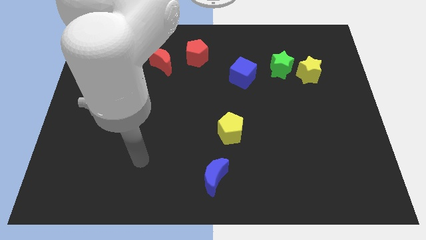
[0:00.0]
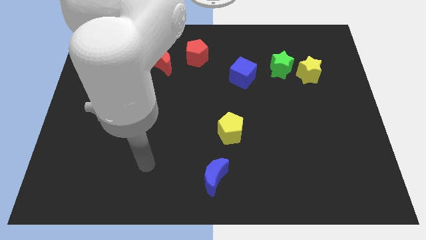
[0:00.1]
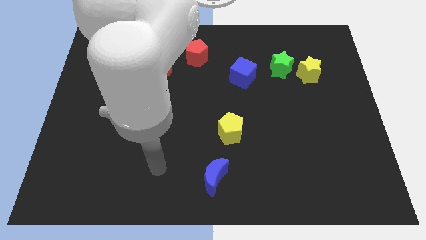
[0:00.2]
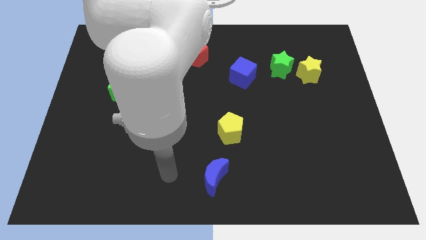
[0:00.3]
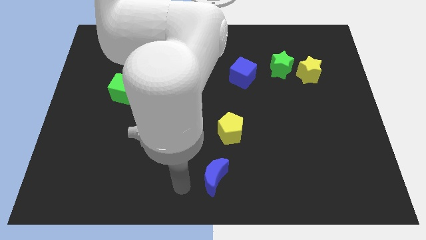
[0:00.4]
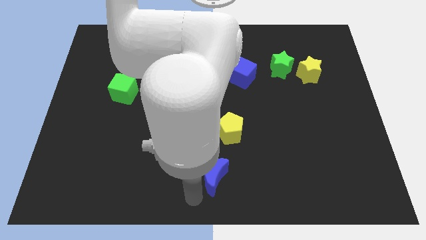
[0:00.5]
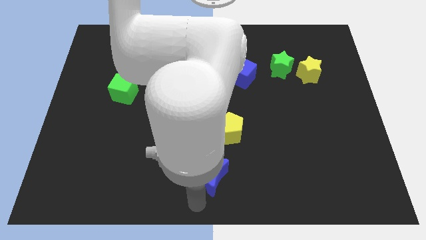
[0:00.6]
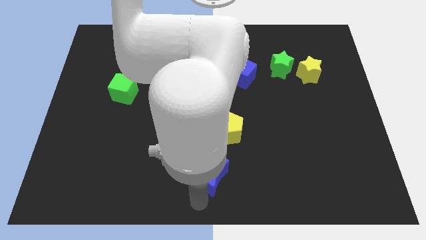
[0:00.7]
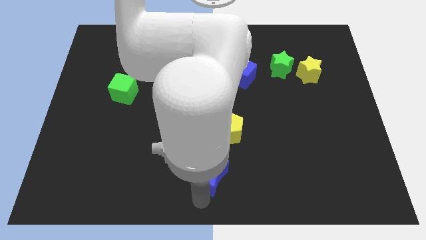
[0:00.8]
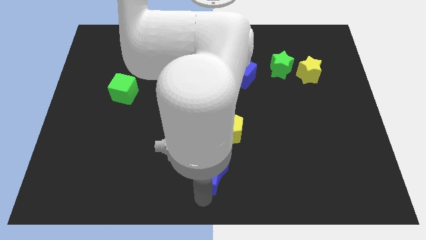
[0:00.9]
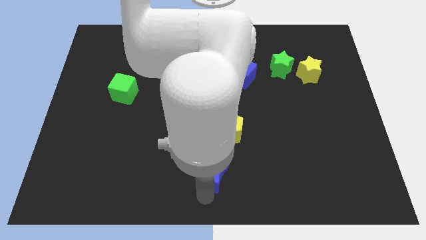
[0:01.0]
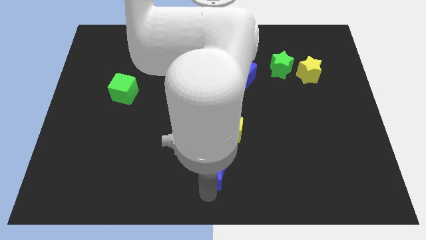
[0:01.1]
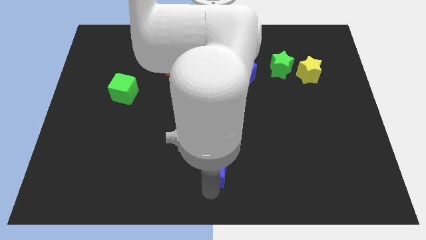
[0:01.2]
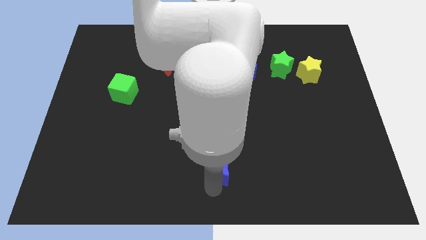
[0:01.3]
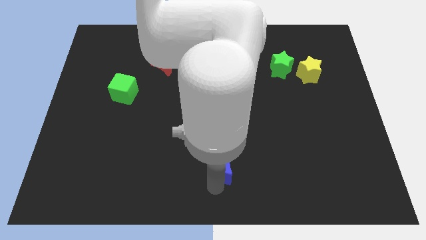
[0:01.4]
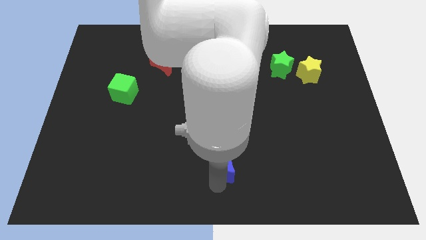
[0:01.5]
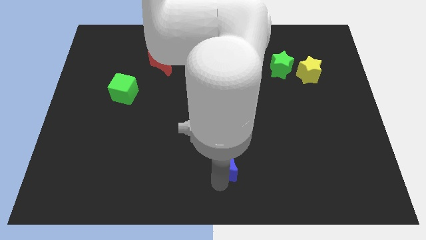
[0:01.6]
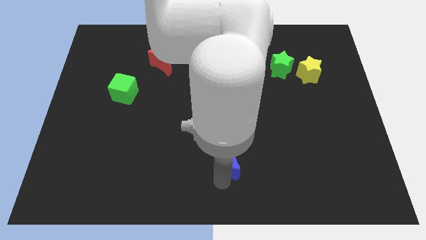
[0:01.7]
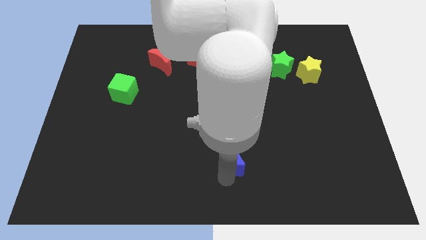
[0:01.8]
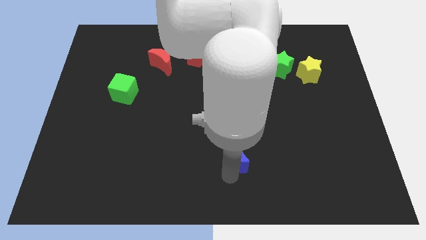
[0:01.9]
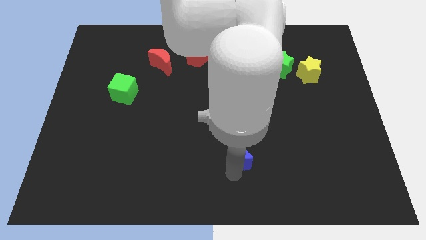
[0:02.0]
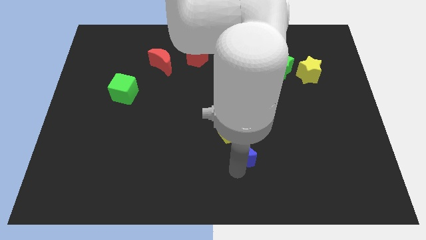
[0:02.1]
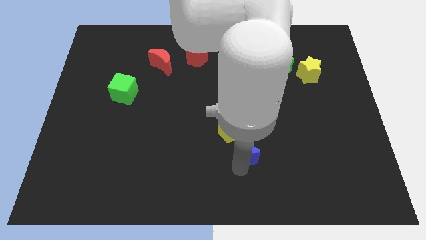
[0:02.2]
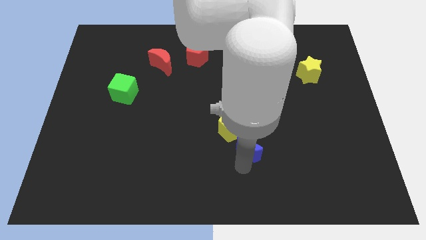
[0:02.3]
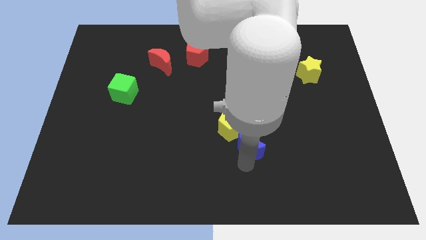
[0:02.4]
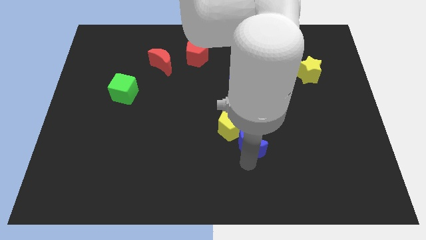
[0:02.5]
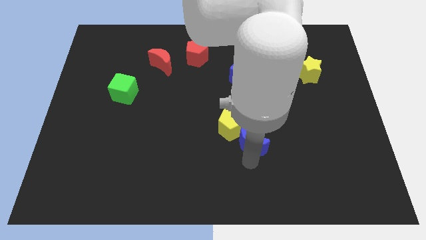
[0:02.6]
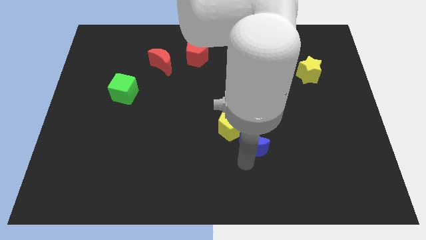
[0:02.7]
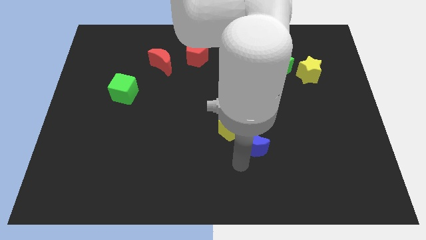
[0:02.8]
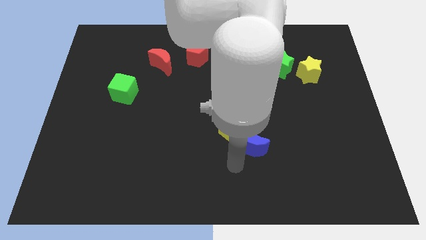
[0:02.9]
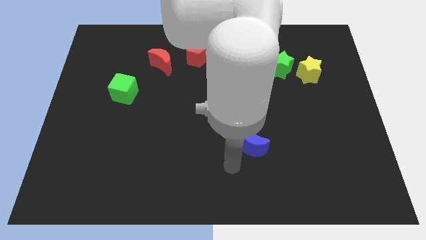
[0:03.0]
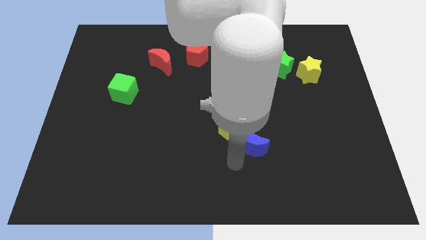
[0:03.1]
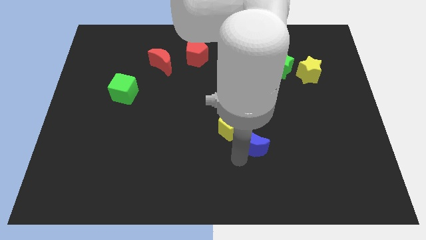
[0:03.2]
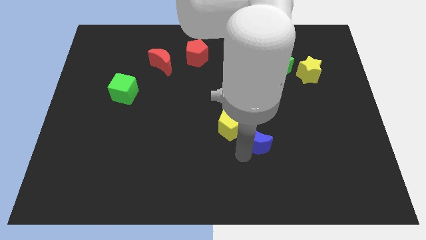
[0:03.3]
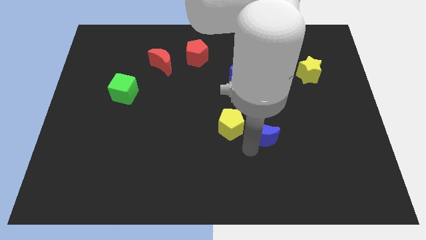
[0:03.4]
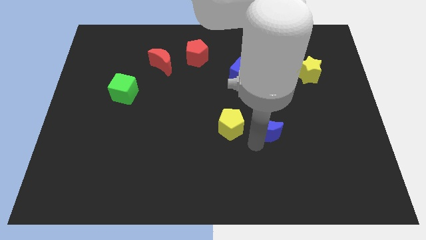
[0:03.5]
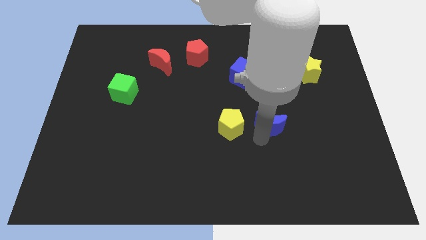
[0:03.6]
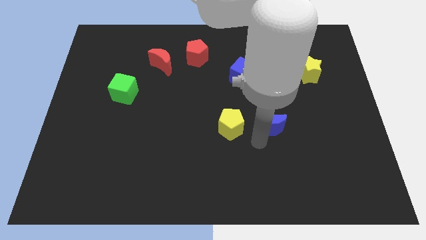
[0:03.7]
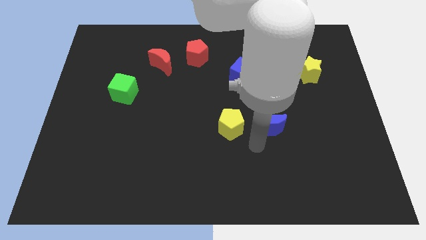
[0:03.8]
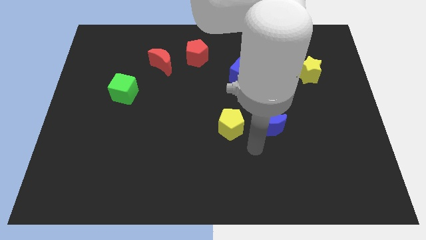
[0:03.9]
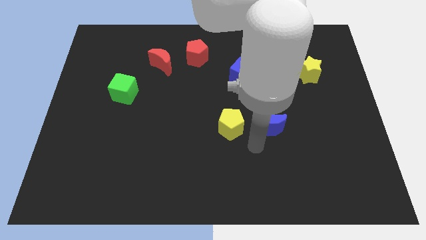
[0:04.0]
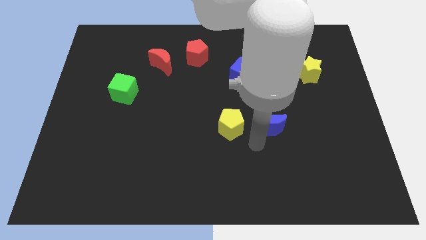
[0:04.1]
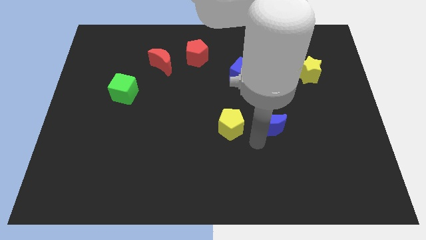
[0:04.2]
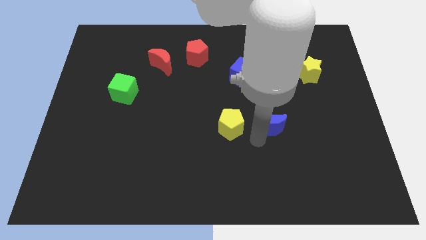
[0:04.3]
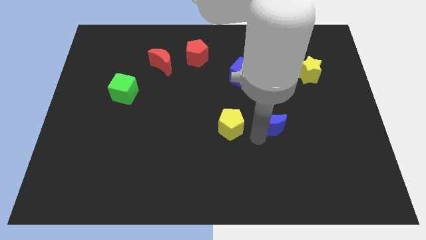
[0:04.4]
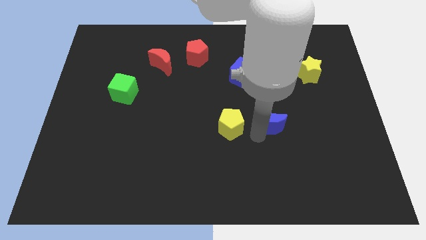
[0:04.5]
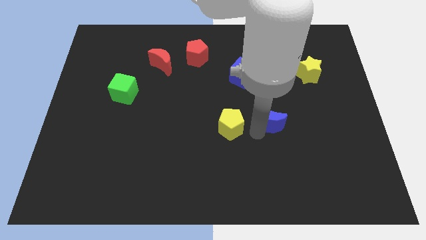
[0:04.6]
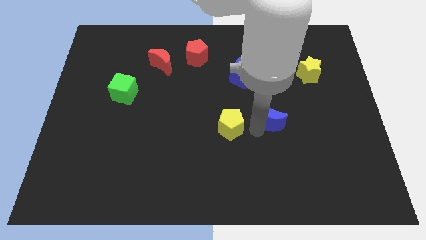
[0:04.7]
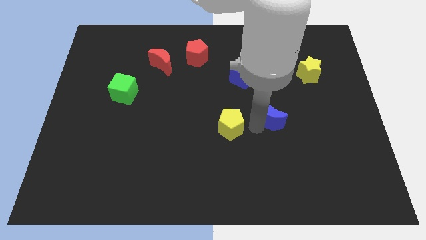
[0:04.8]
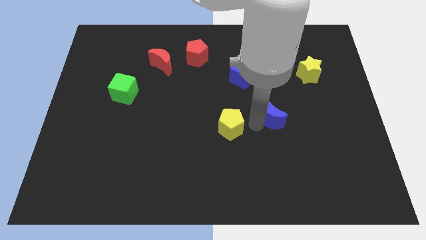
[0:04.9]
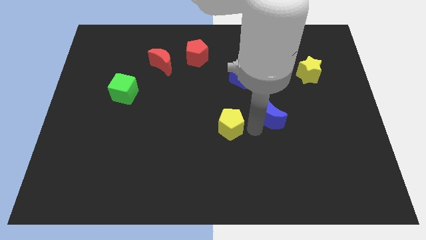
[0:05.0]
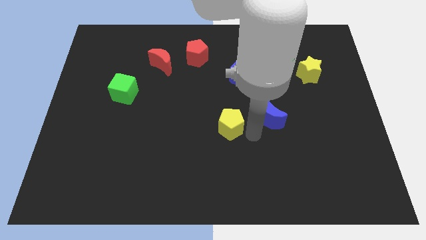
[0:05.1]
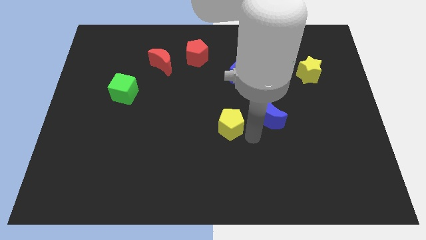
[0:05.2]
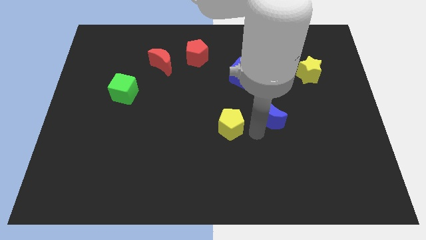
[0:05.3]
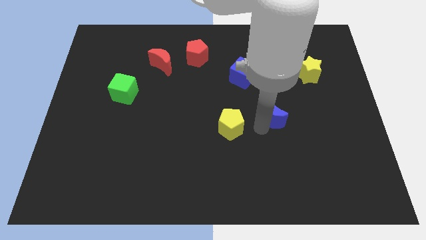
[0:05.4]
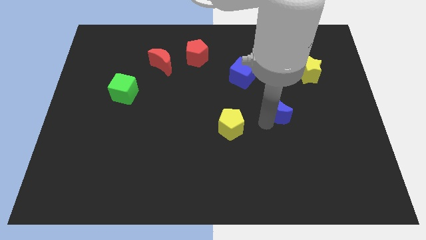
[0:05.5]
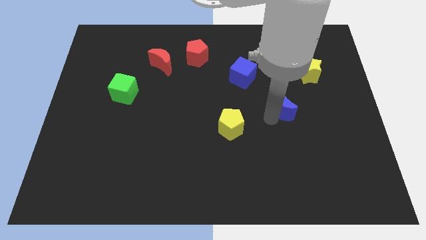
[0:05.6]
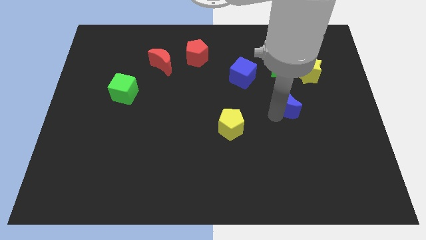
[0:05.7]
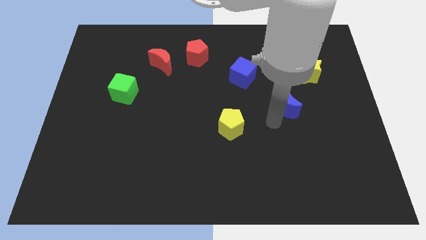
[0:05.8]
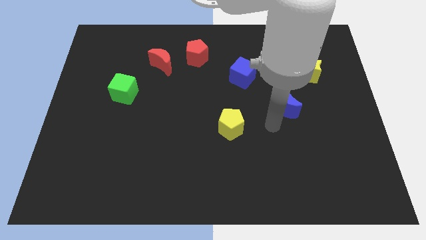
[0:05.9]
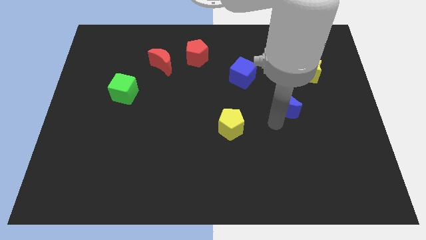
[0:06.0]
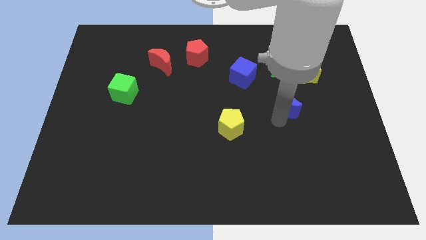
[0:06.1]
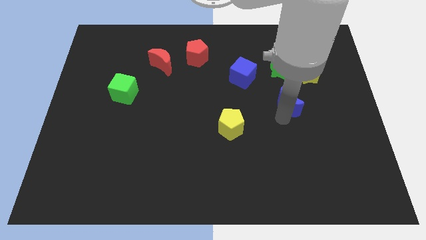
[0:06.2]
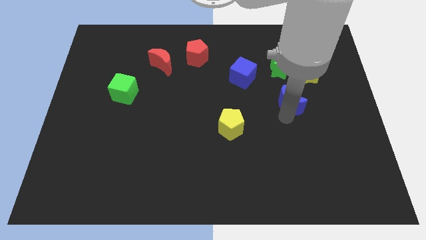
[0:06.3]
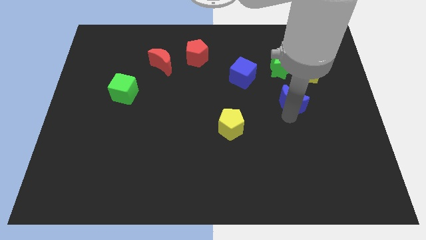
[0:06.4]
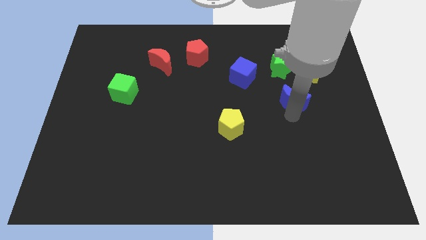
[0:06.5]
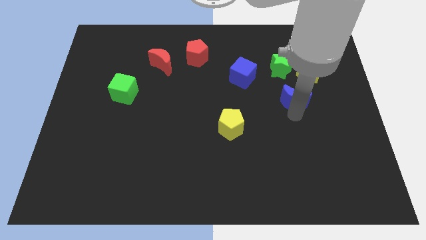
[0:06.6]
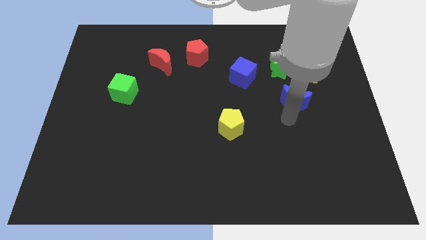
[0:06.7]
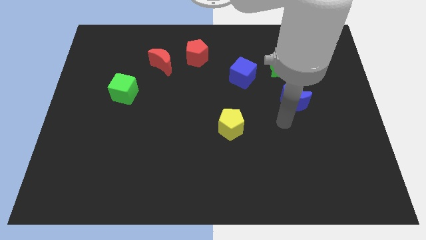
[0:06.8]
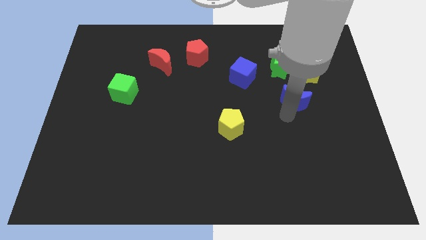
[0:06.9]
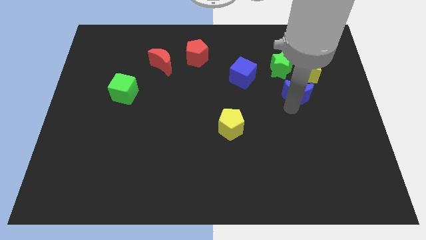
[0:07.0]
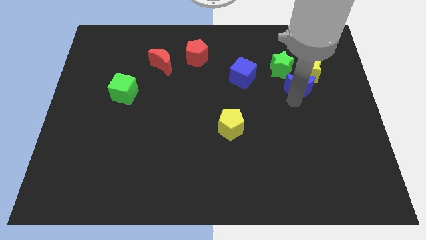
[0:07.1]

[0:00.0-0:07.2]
move the blue moon to the yellow star
